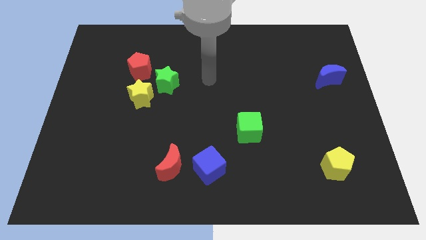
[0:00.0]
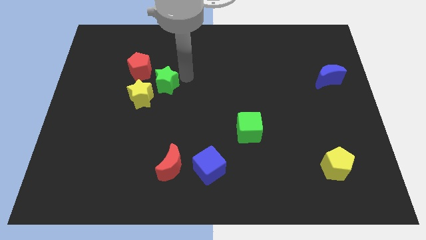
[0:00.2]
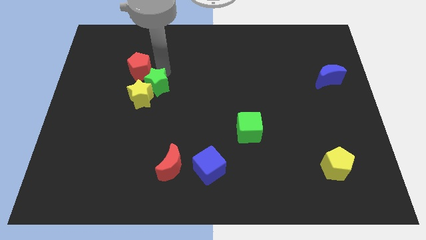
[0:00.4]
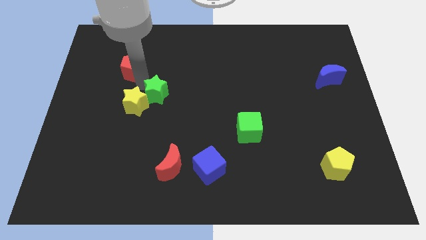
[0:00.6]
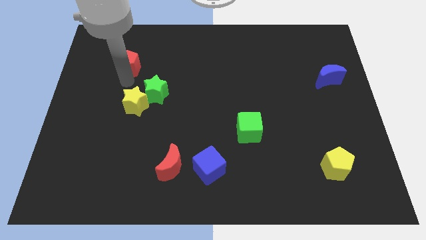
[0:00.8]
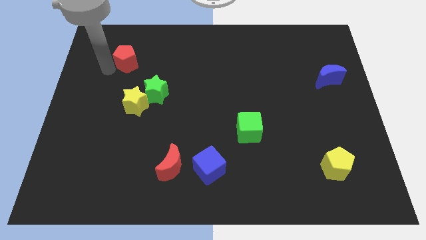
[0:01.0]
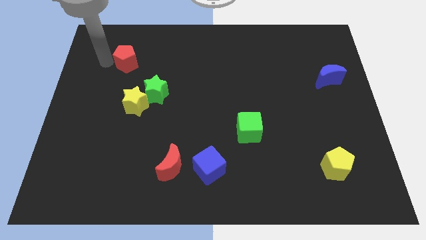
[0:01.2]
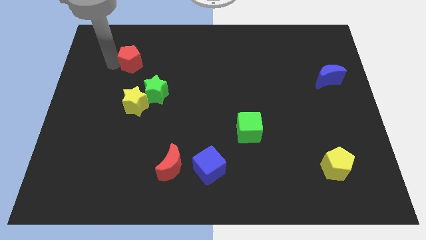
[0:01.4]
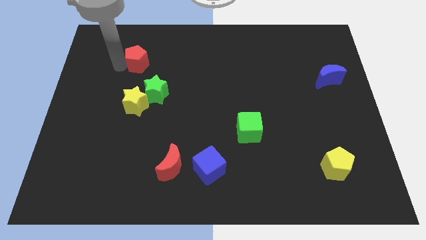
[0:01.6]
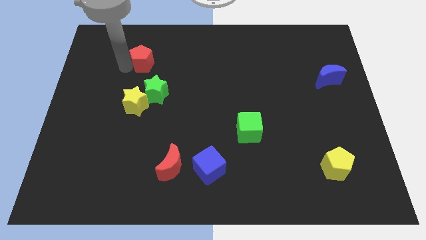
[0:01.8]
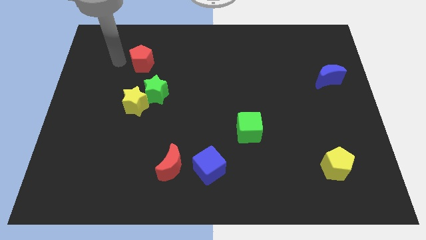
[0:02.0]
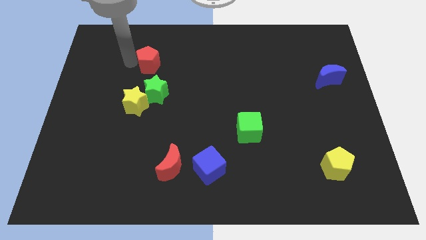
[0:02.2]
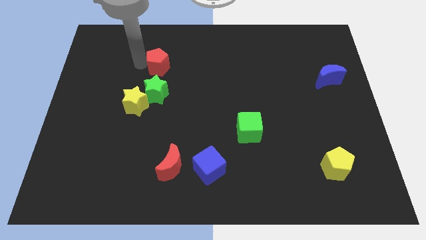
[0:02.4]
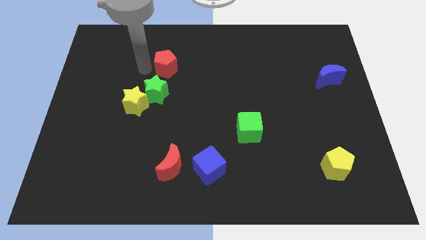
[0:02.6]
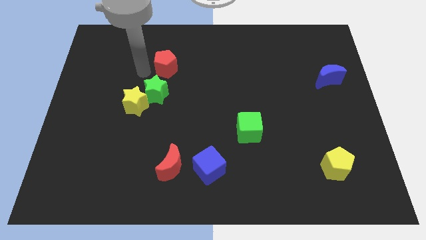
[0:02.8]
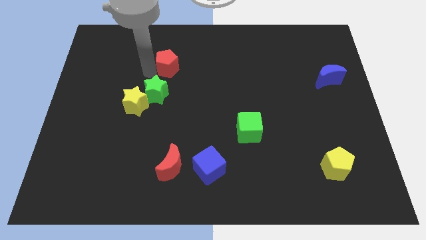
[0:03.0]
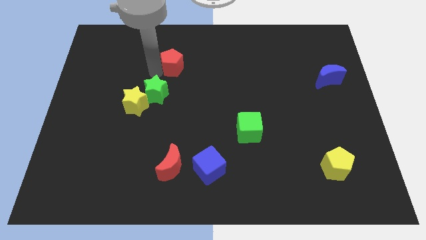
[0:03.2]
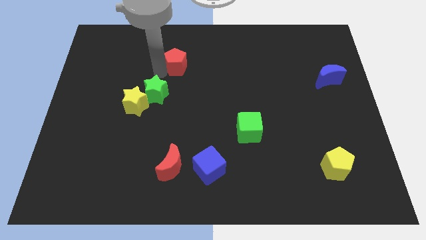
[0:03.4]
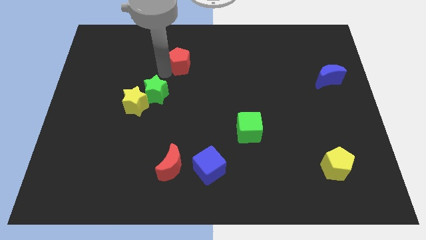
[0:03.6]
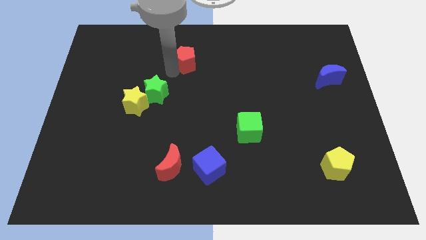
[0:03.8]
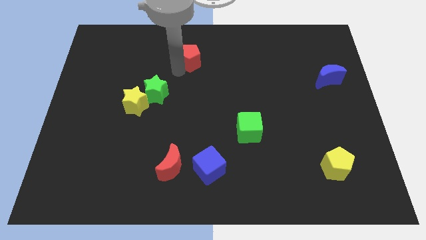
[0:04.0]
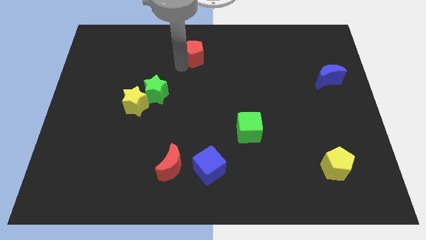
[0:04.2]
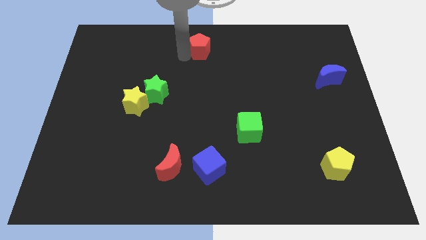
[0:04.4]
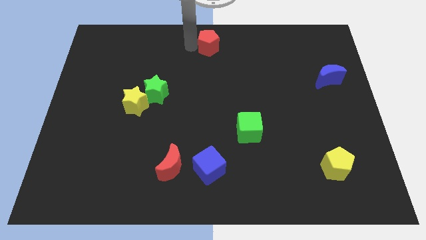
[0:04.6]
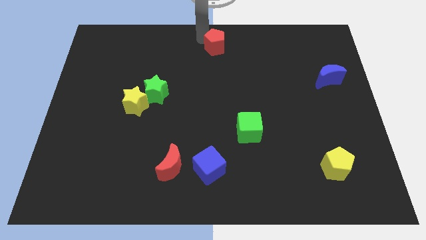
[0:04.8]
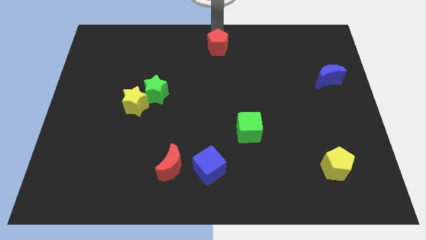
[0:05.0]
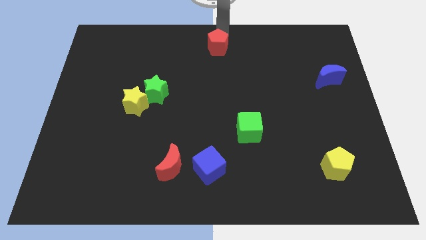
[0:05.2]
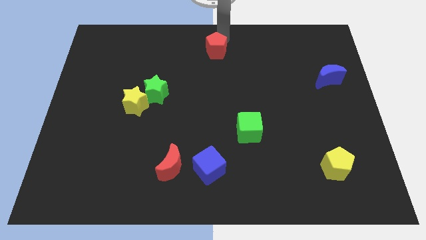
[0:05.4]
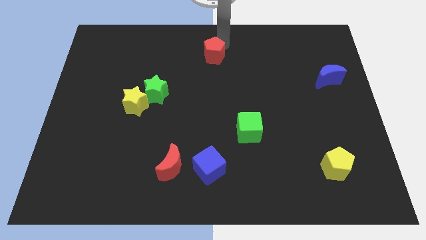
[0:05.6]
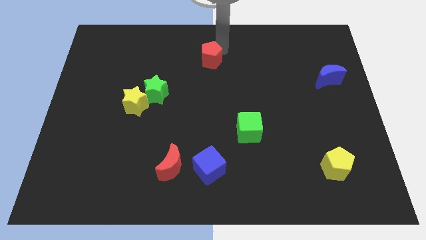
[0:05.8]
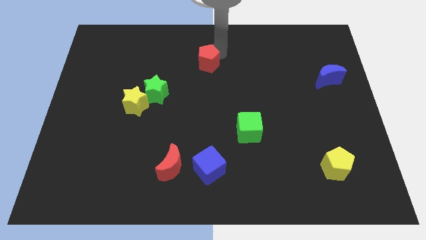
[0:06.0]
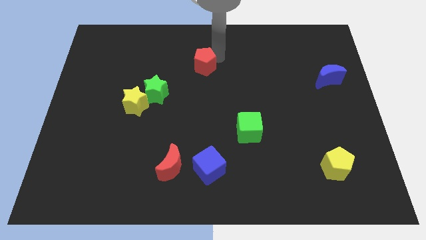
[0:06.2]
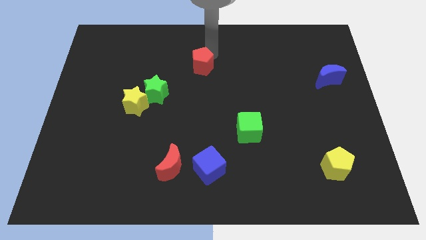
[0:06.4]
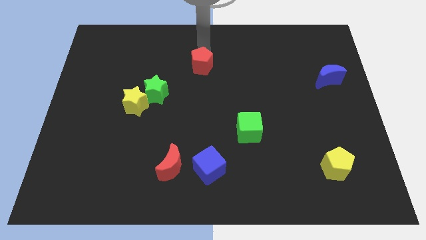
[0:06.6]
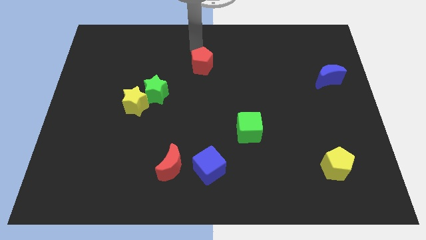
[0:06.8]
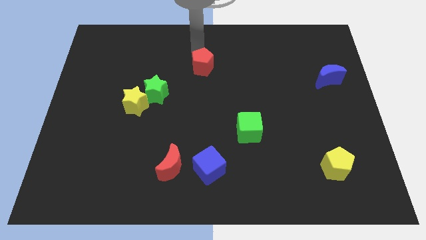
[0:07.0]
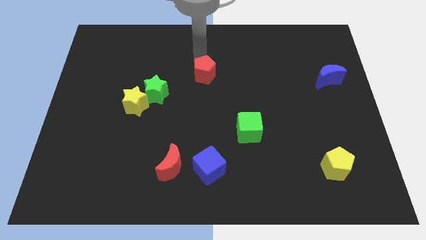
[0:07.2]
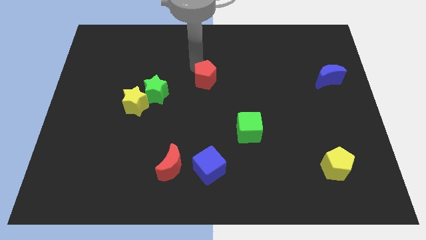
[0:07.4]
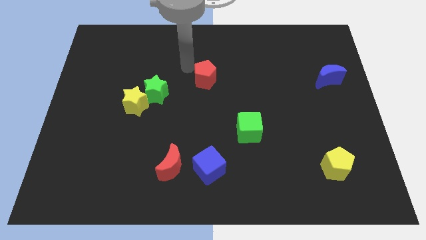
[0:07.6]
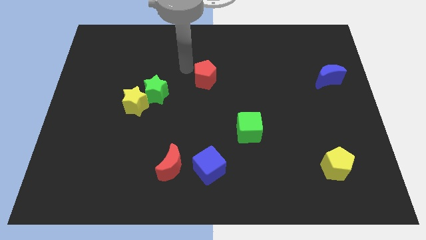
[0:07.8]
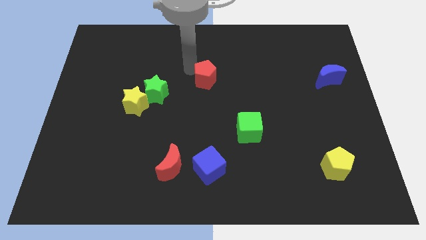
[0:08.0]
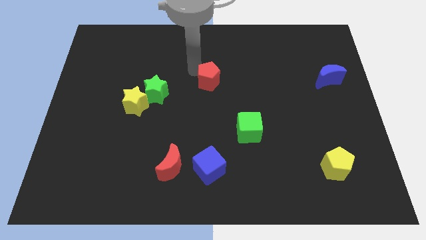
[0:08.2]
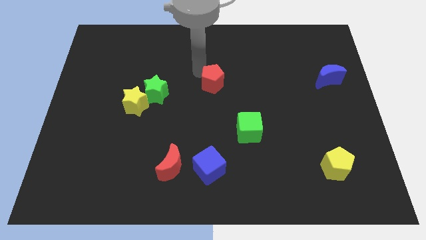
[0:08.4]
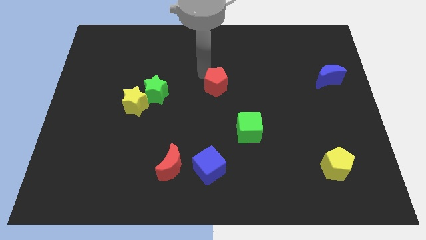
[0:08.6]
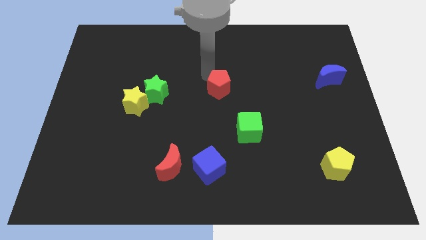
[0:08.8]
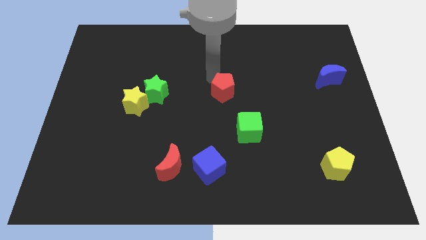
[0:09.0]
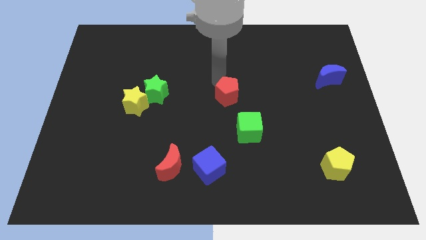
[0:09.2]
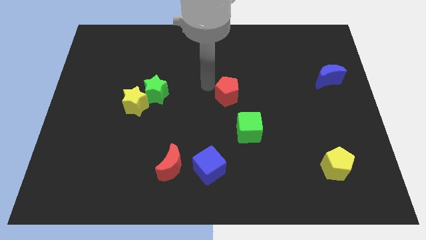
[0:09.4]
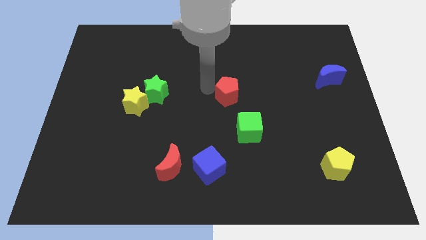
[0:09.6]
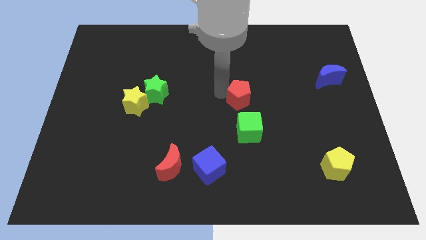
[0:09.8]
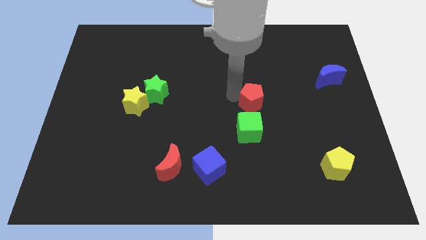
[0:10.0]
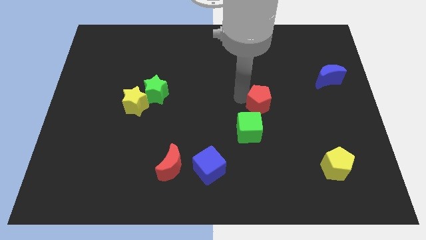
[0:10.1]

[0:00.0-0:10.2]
slide the red pentagon to the top right side of the green cube

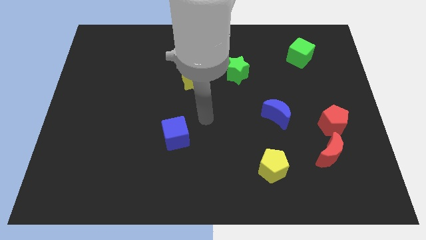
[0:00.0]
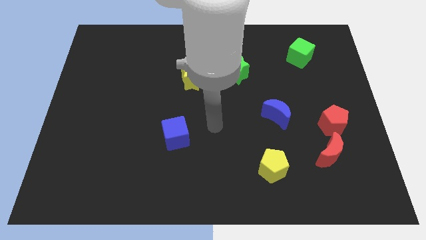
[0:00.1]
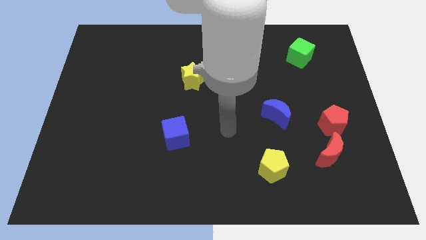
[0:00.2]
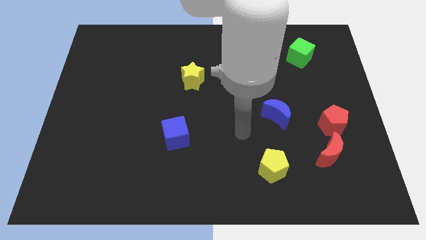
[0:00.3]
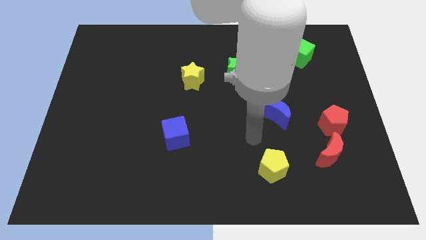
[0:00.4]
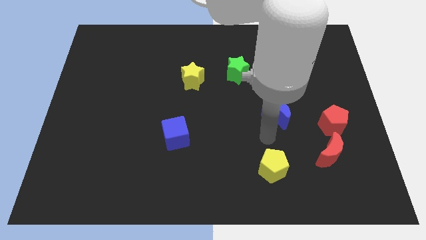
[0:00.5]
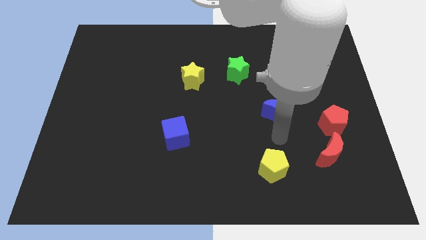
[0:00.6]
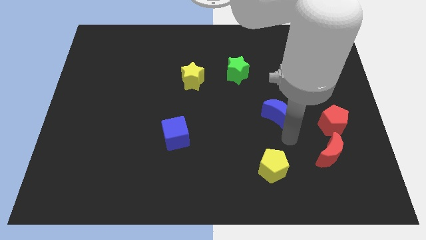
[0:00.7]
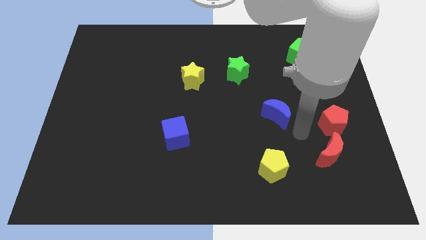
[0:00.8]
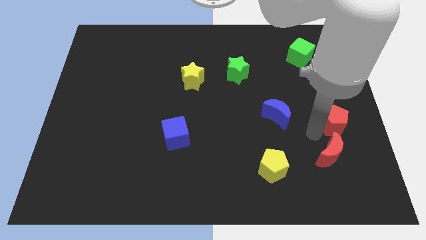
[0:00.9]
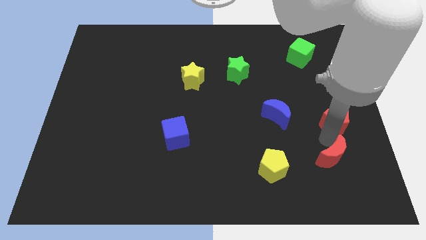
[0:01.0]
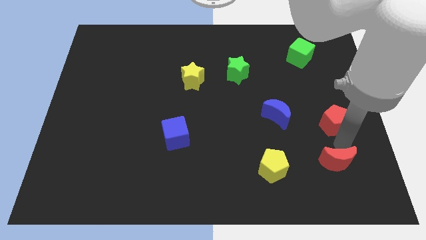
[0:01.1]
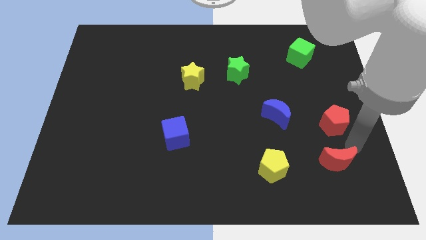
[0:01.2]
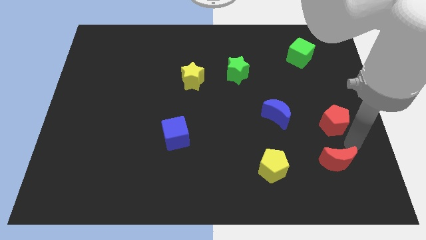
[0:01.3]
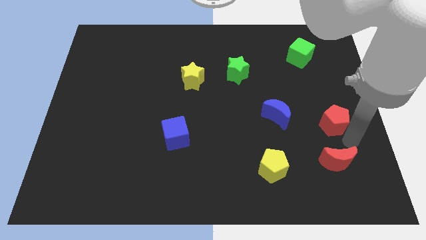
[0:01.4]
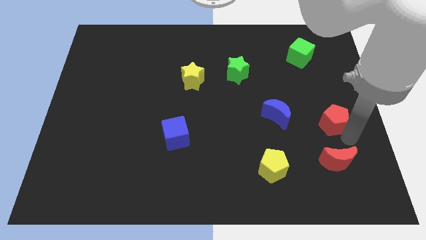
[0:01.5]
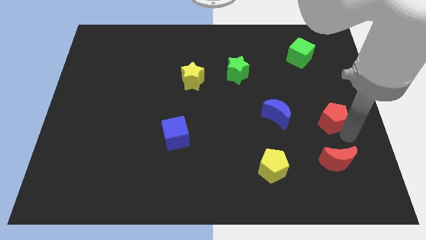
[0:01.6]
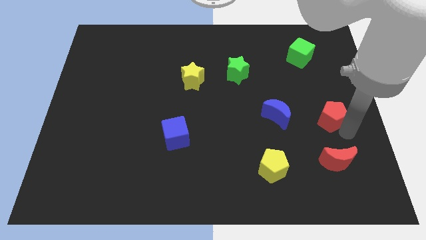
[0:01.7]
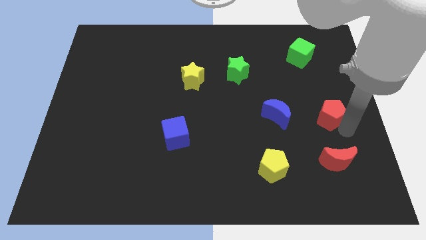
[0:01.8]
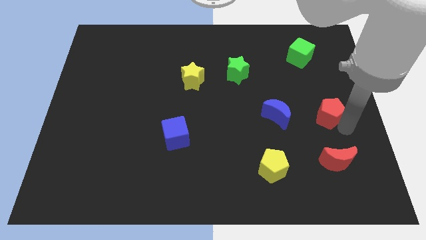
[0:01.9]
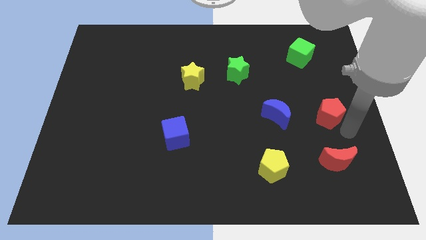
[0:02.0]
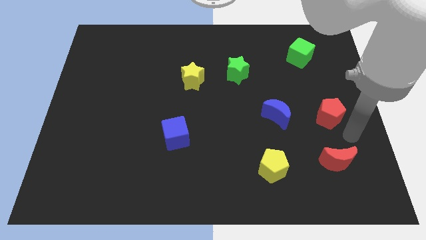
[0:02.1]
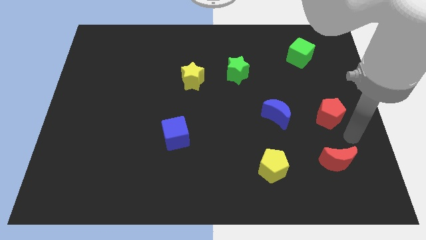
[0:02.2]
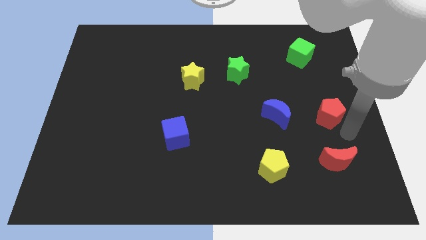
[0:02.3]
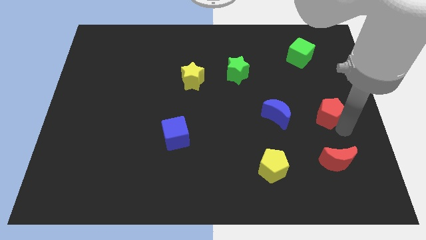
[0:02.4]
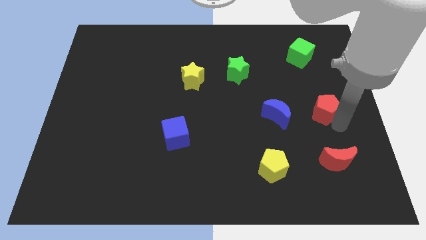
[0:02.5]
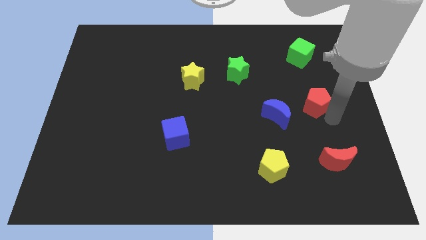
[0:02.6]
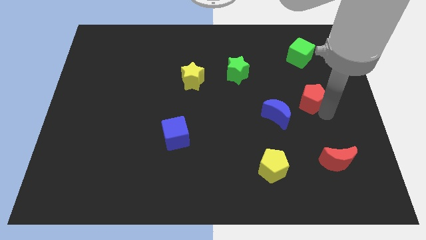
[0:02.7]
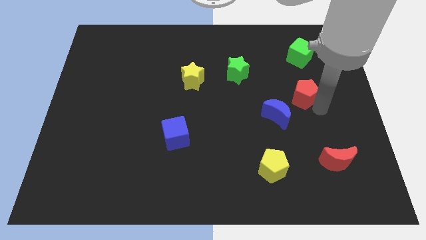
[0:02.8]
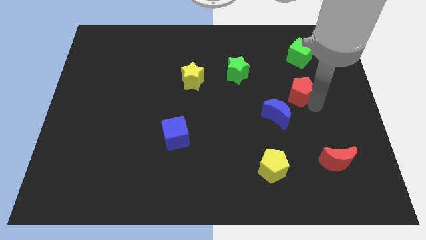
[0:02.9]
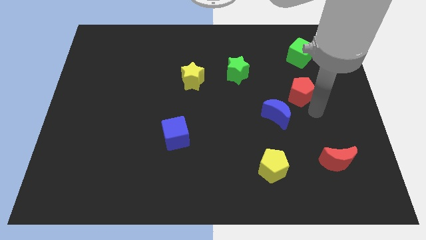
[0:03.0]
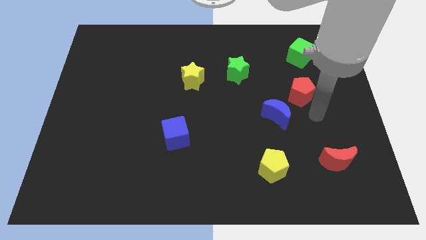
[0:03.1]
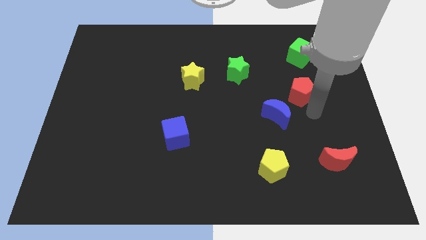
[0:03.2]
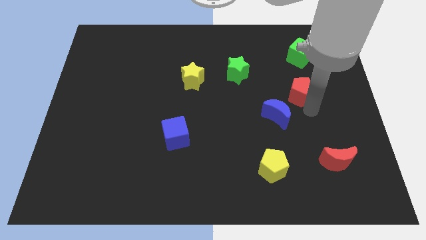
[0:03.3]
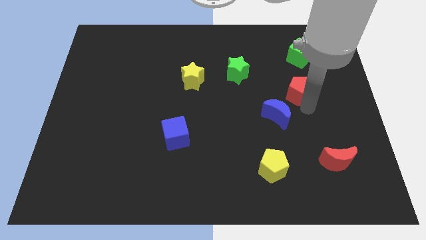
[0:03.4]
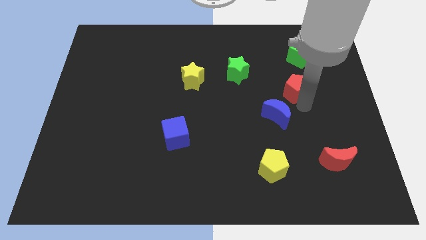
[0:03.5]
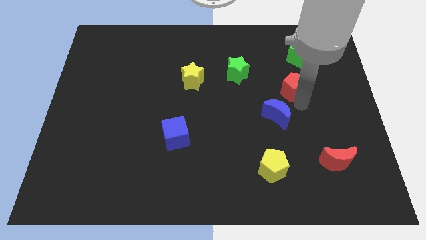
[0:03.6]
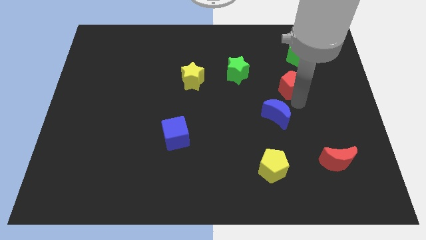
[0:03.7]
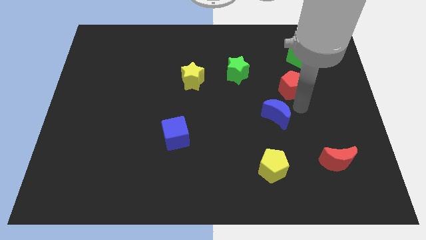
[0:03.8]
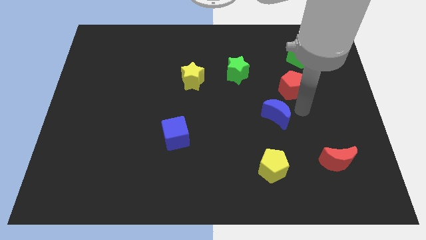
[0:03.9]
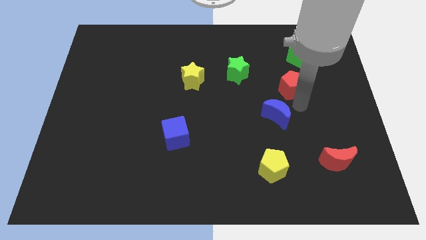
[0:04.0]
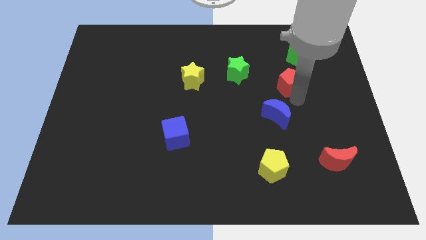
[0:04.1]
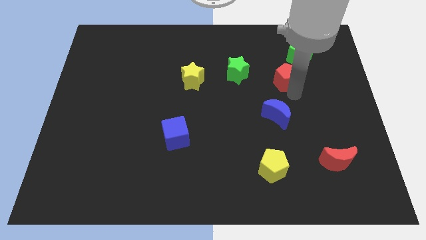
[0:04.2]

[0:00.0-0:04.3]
push the red pentagon to the bottom left of the green cube
